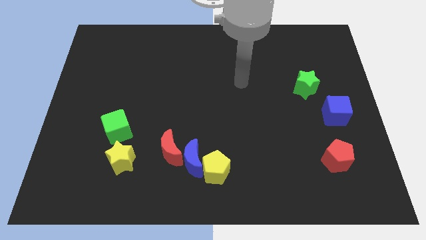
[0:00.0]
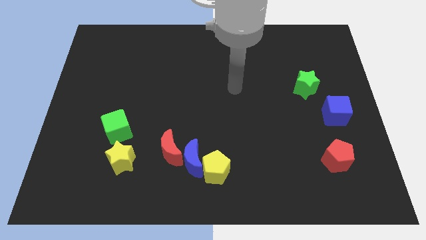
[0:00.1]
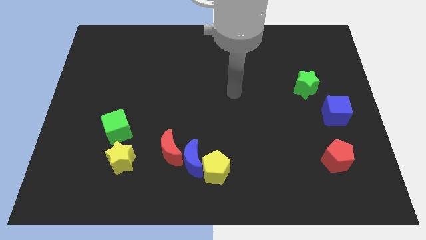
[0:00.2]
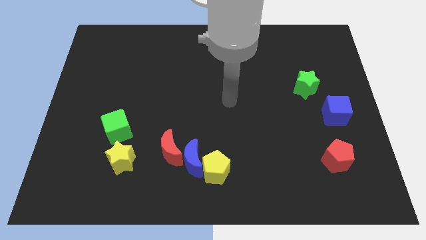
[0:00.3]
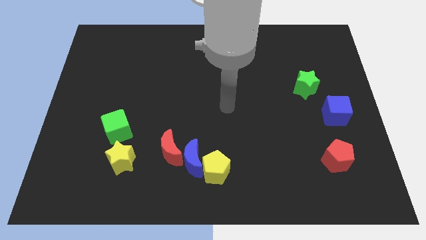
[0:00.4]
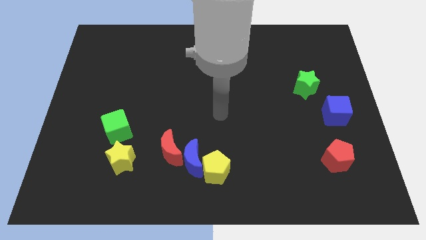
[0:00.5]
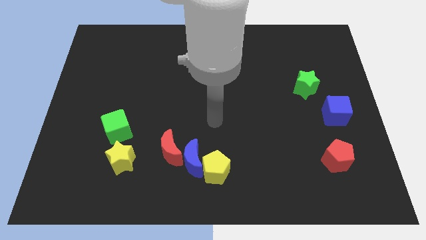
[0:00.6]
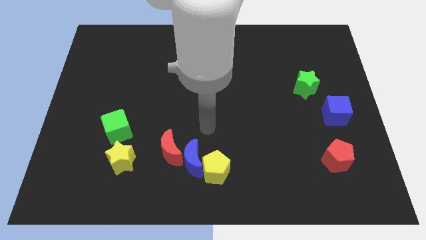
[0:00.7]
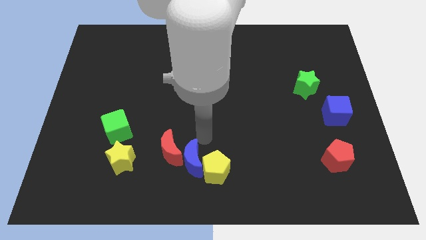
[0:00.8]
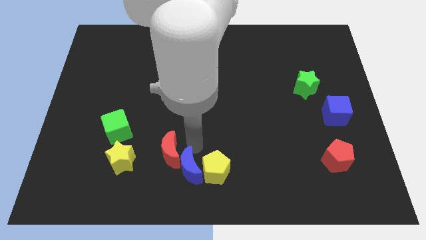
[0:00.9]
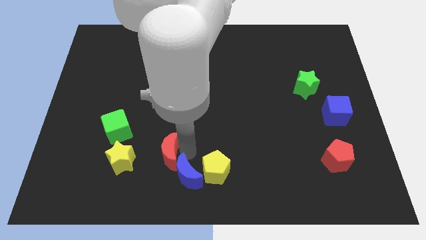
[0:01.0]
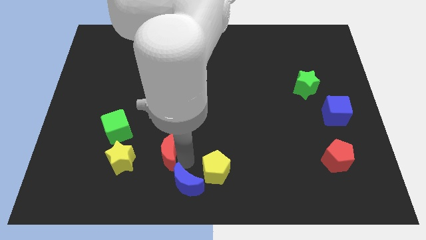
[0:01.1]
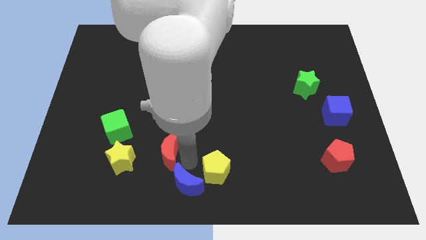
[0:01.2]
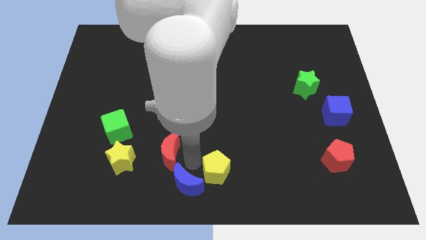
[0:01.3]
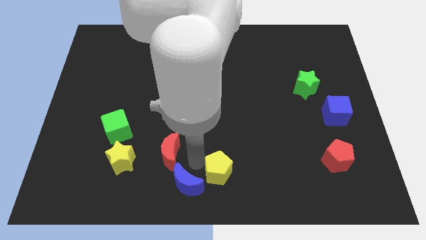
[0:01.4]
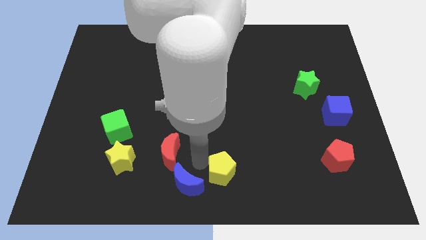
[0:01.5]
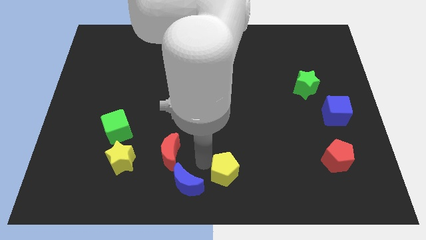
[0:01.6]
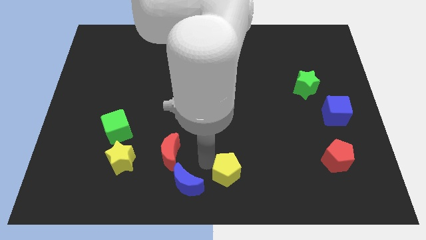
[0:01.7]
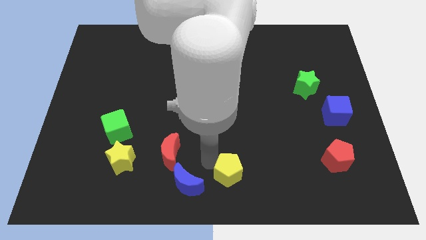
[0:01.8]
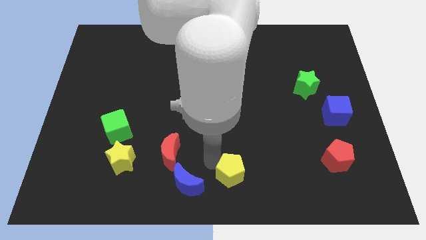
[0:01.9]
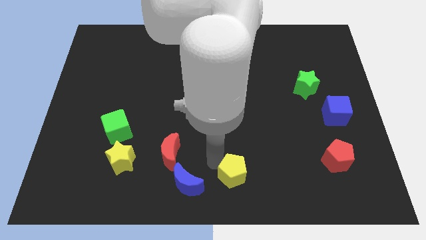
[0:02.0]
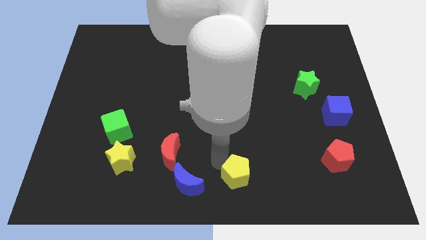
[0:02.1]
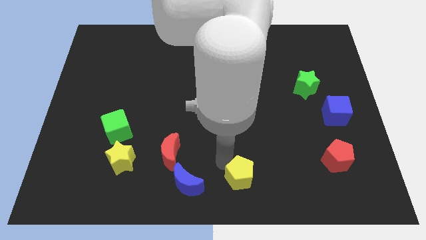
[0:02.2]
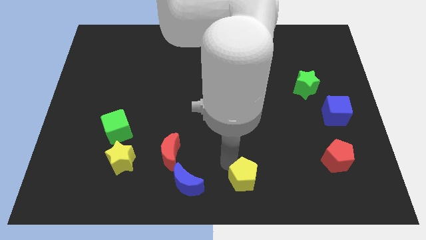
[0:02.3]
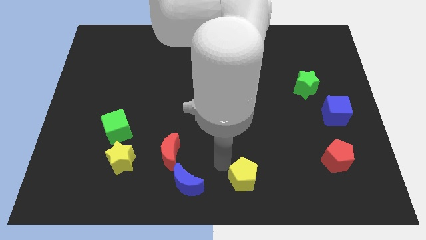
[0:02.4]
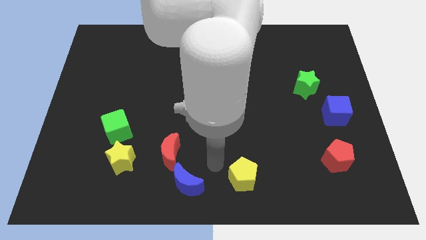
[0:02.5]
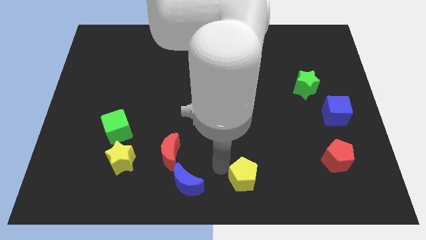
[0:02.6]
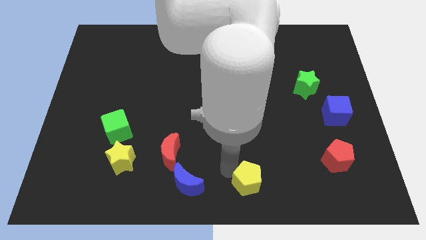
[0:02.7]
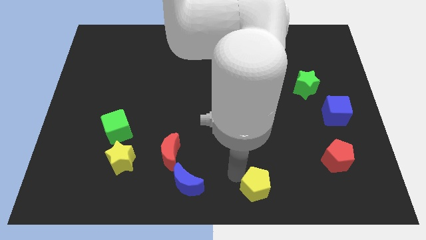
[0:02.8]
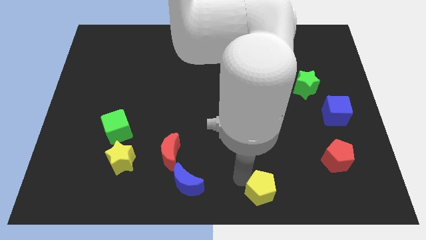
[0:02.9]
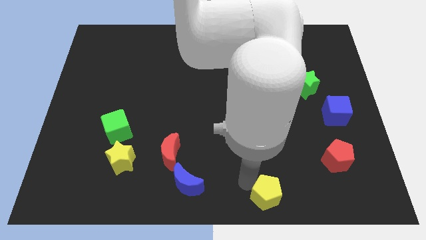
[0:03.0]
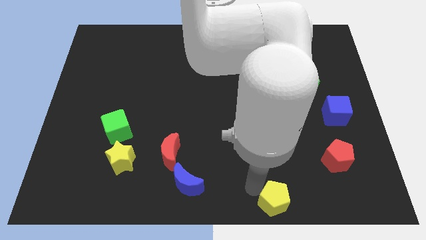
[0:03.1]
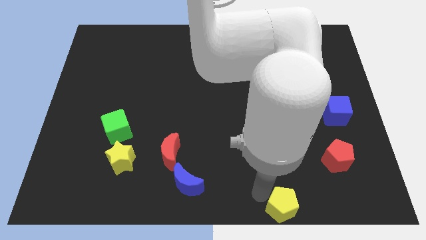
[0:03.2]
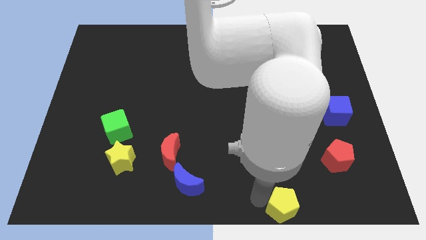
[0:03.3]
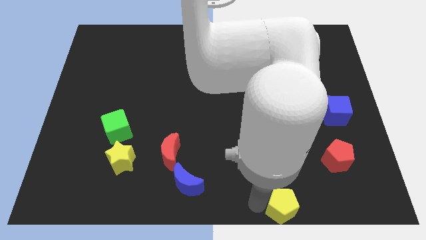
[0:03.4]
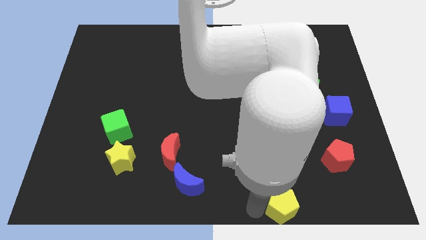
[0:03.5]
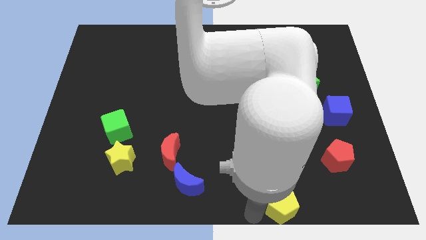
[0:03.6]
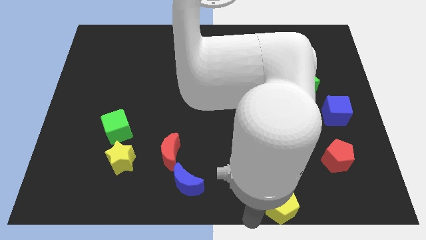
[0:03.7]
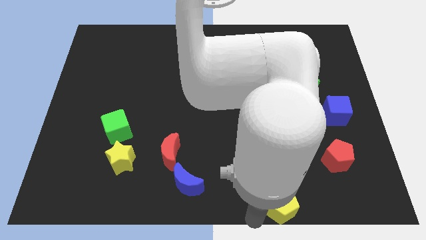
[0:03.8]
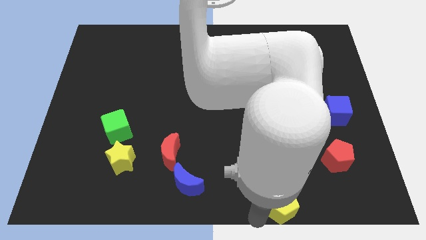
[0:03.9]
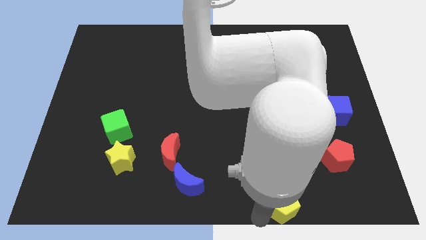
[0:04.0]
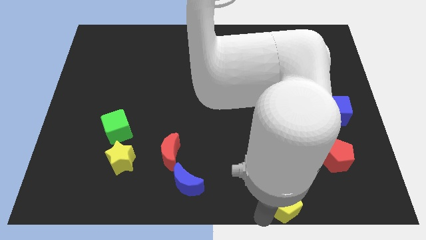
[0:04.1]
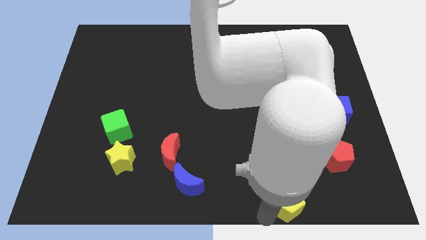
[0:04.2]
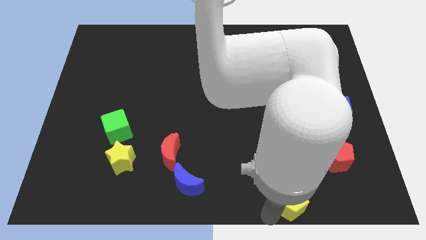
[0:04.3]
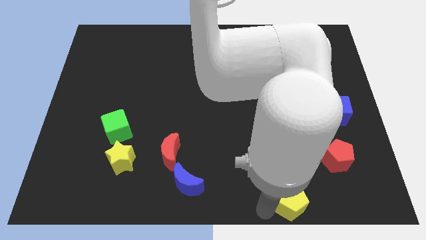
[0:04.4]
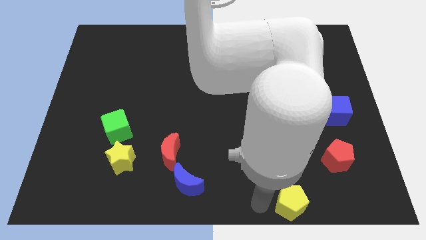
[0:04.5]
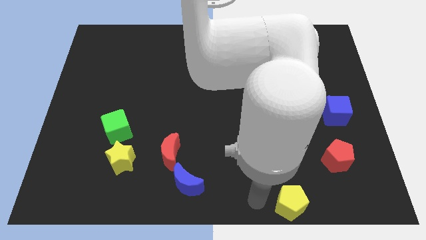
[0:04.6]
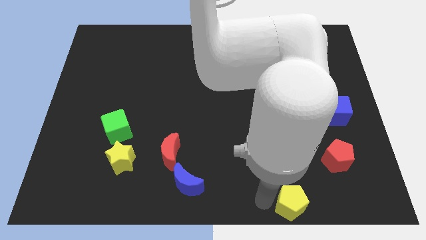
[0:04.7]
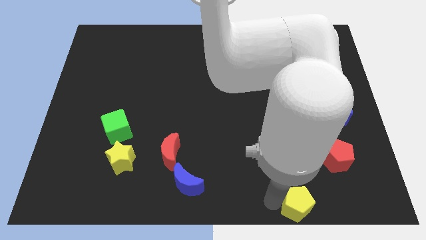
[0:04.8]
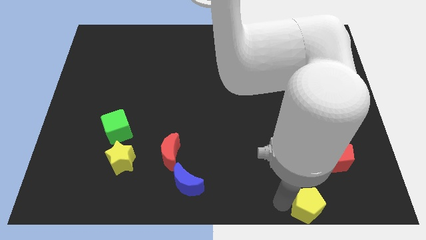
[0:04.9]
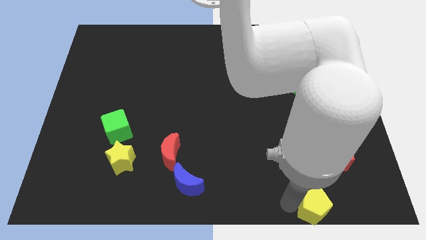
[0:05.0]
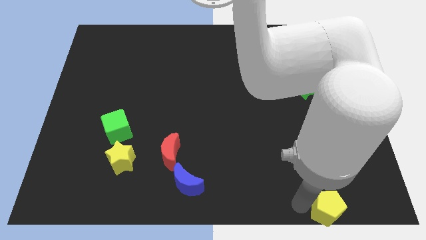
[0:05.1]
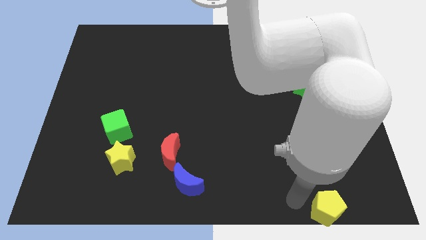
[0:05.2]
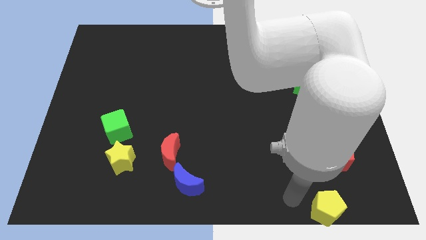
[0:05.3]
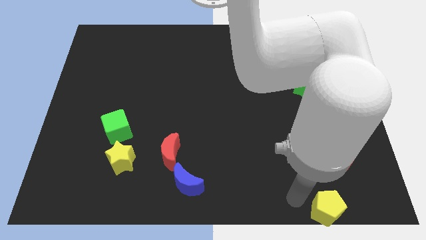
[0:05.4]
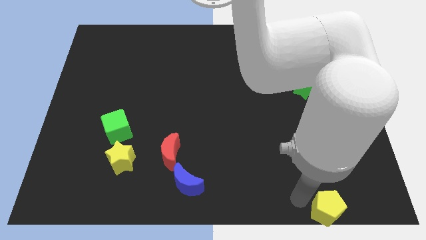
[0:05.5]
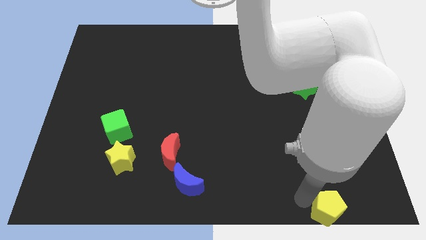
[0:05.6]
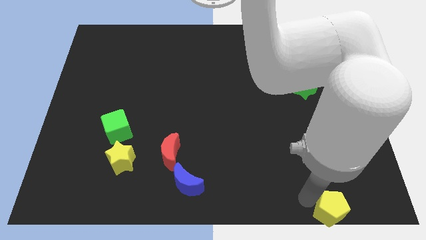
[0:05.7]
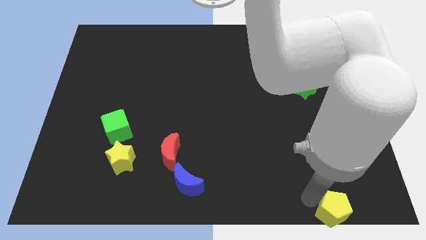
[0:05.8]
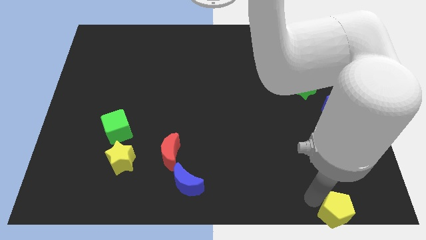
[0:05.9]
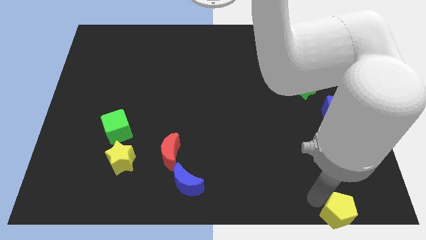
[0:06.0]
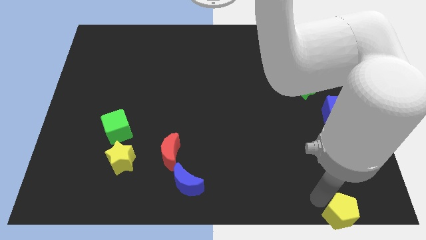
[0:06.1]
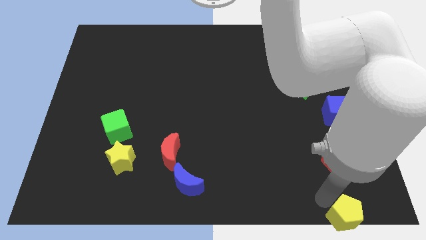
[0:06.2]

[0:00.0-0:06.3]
put the yellow pentagon to the bottom right

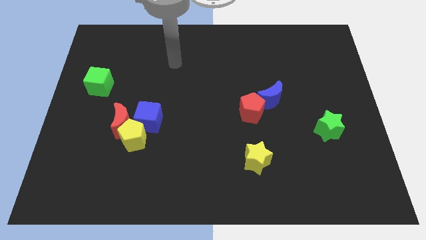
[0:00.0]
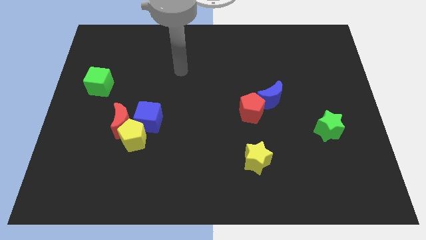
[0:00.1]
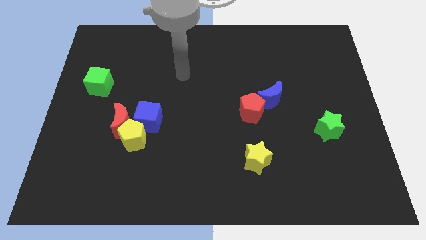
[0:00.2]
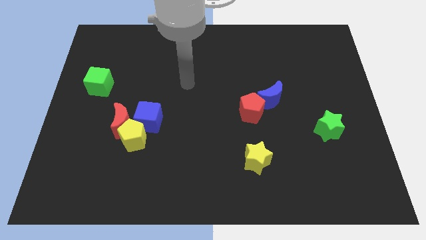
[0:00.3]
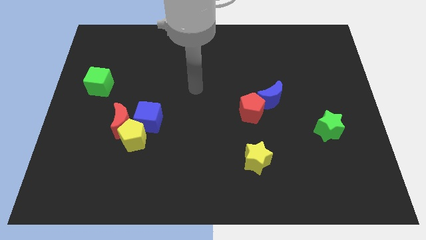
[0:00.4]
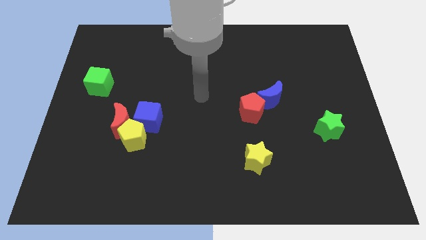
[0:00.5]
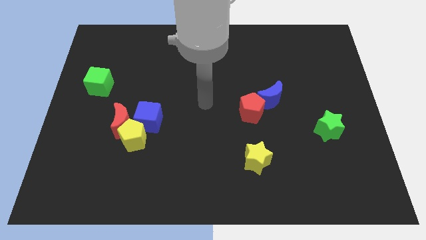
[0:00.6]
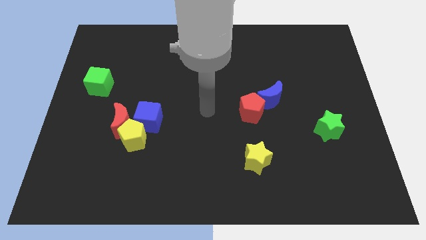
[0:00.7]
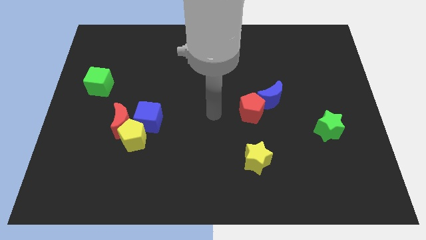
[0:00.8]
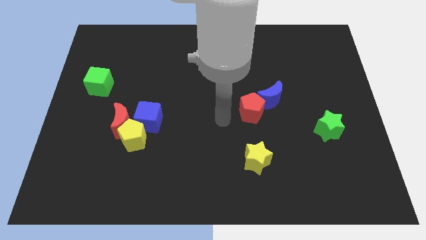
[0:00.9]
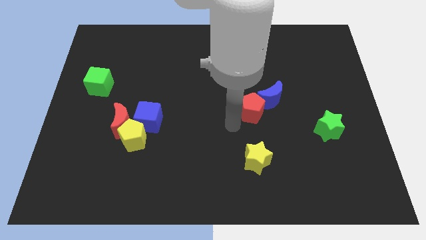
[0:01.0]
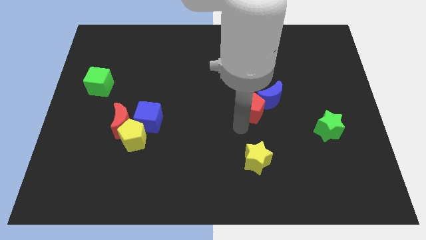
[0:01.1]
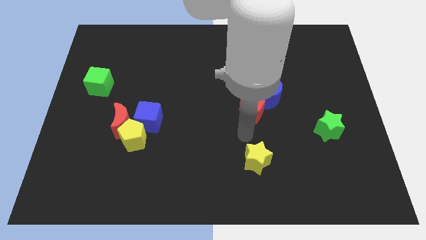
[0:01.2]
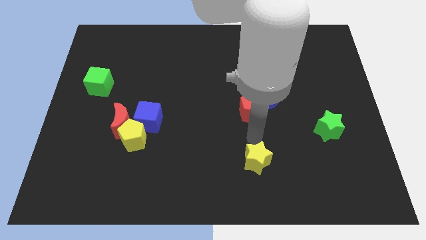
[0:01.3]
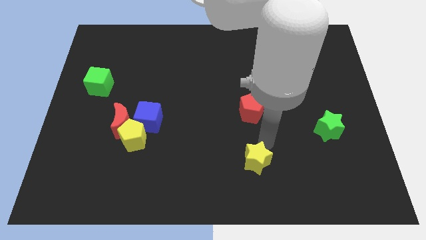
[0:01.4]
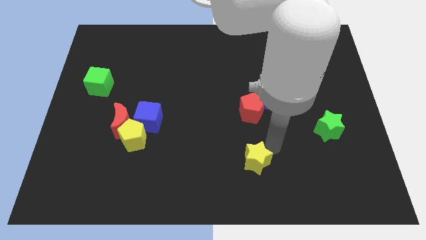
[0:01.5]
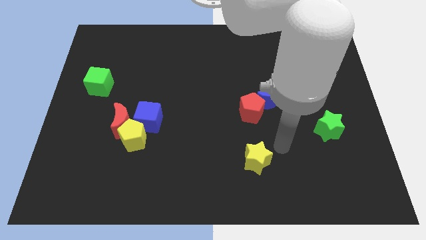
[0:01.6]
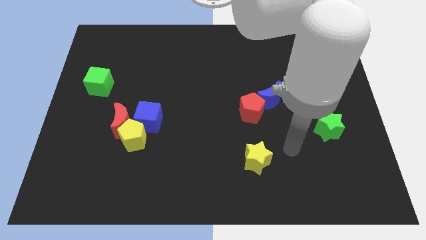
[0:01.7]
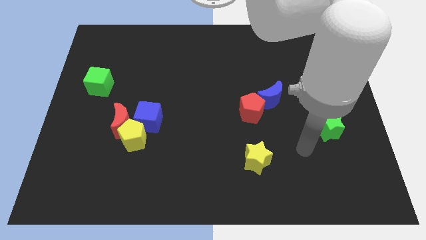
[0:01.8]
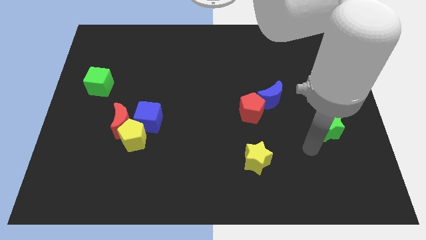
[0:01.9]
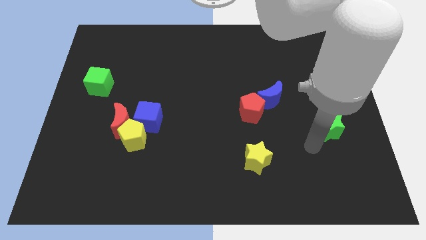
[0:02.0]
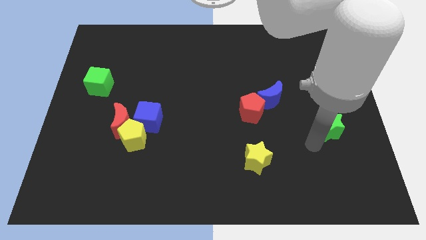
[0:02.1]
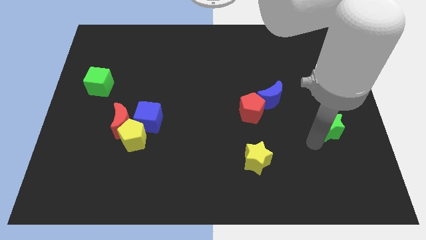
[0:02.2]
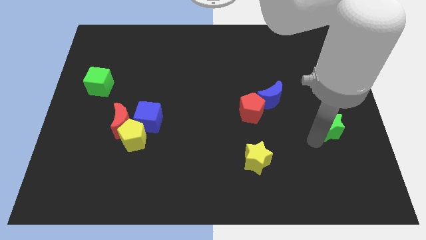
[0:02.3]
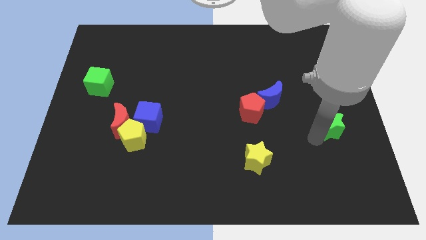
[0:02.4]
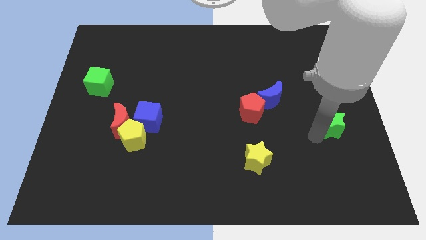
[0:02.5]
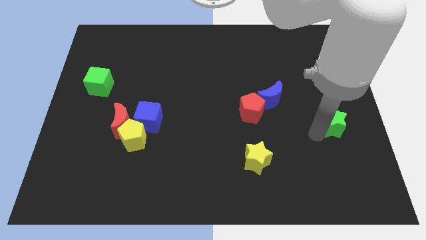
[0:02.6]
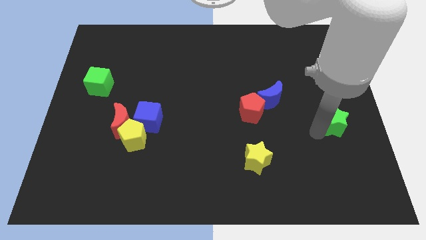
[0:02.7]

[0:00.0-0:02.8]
slide the green star to the center right
